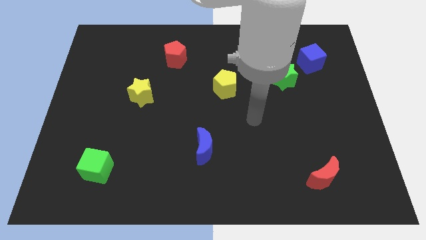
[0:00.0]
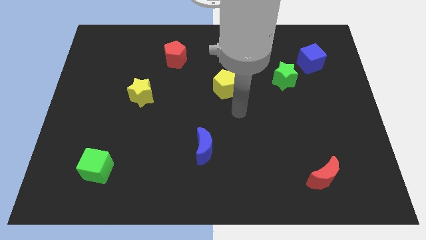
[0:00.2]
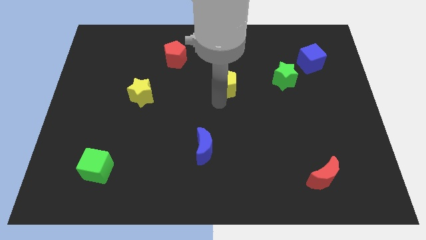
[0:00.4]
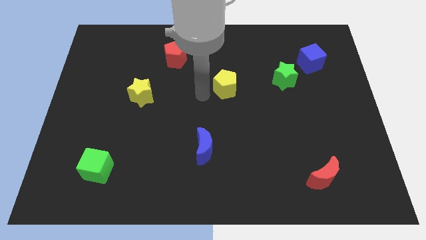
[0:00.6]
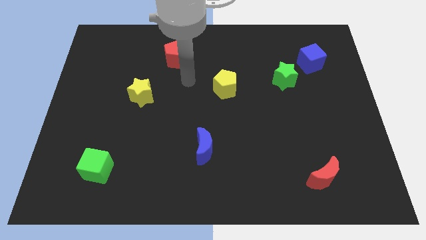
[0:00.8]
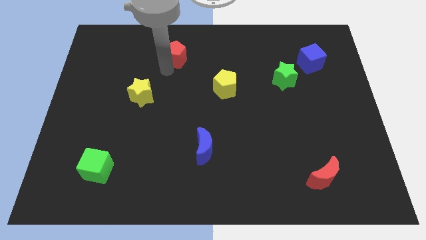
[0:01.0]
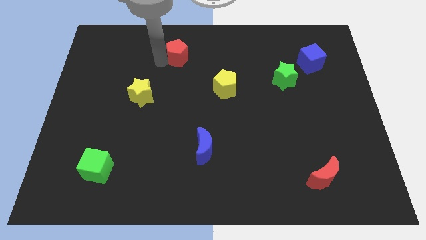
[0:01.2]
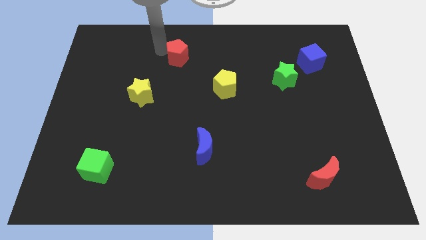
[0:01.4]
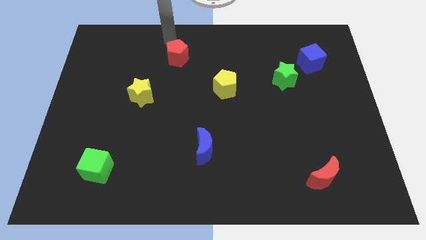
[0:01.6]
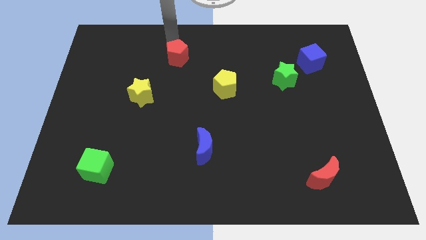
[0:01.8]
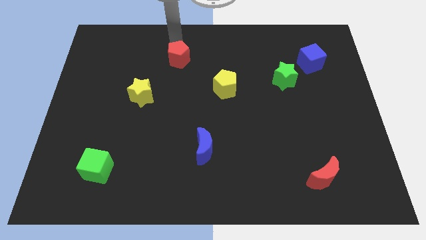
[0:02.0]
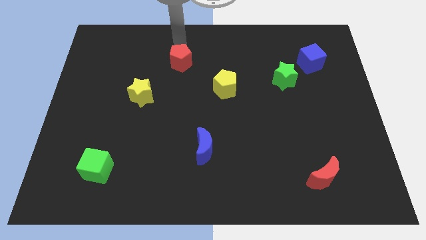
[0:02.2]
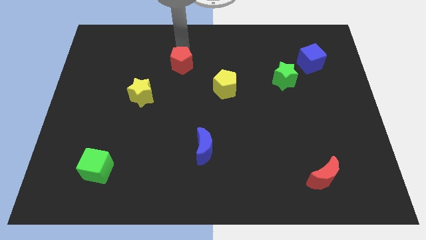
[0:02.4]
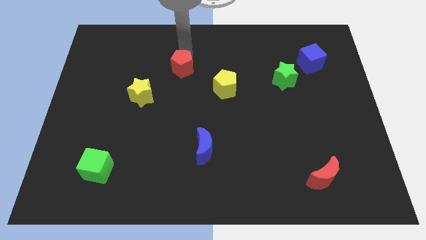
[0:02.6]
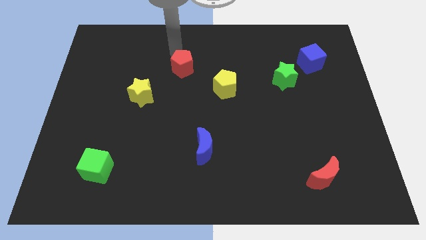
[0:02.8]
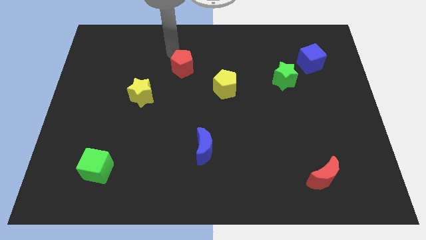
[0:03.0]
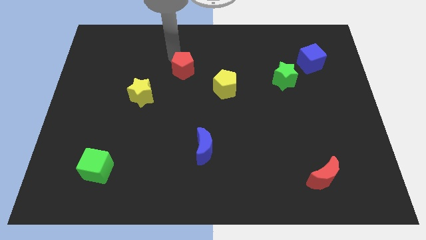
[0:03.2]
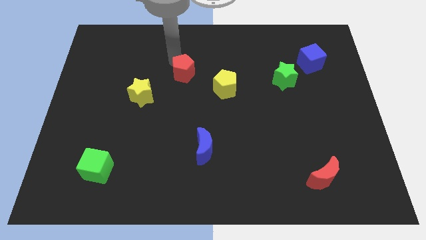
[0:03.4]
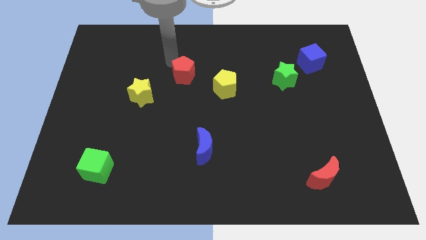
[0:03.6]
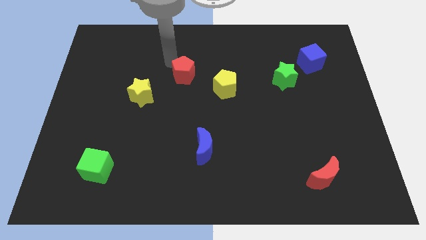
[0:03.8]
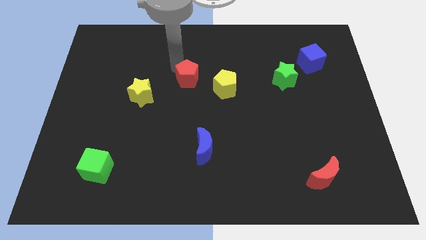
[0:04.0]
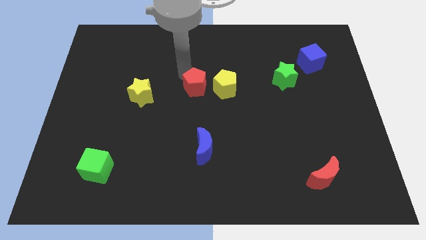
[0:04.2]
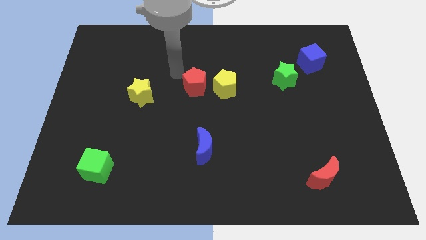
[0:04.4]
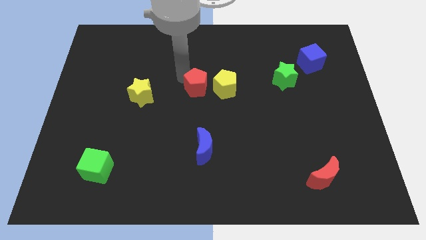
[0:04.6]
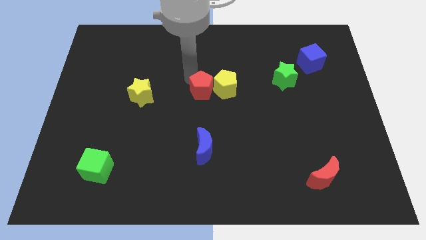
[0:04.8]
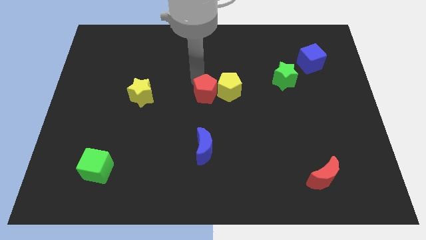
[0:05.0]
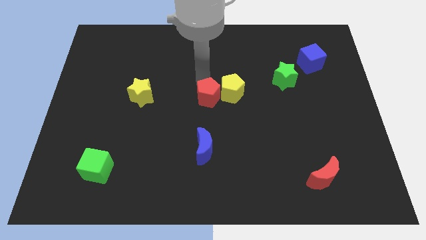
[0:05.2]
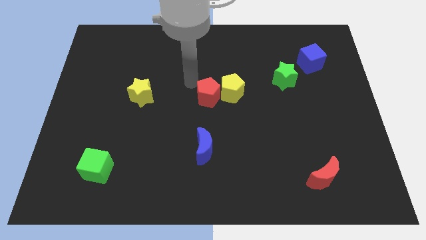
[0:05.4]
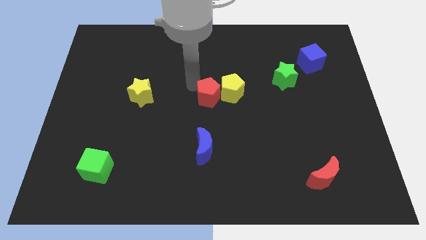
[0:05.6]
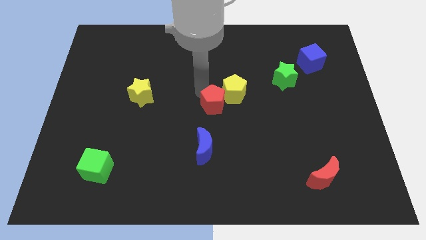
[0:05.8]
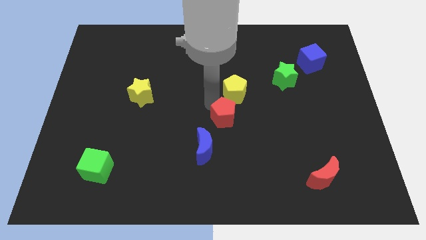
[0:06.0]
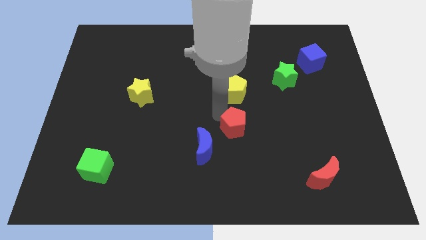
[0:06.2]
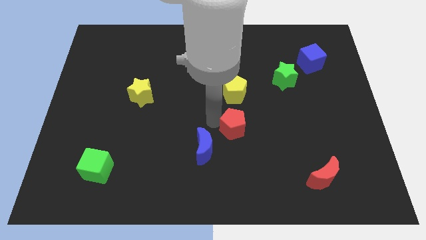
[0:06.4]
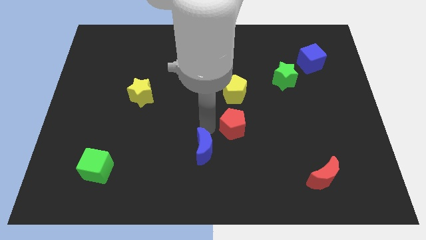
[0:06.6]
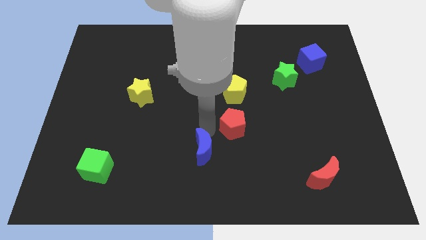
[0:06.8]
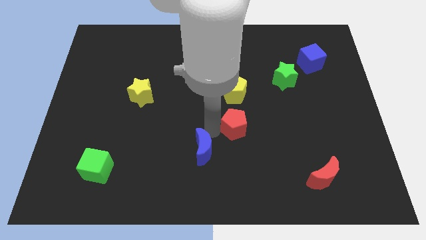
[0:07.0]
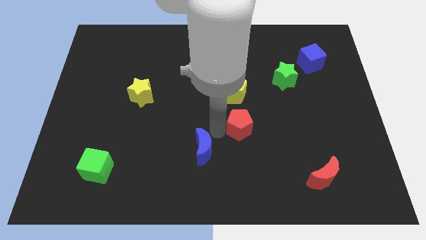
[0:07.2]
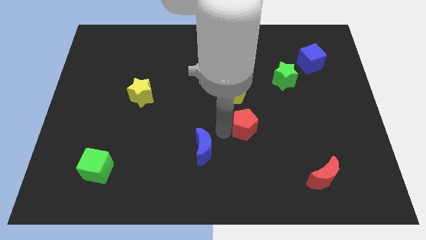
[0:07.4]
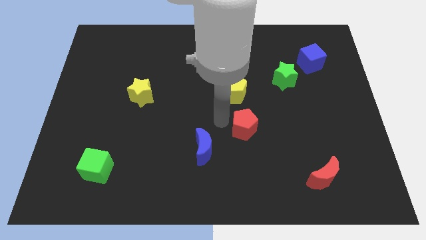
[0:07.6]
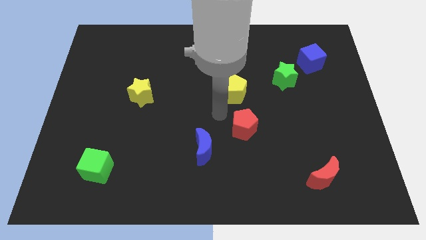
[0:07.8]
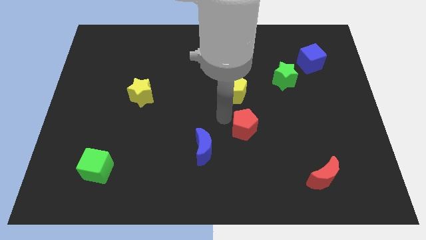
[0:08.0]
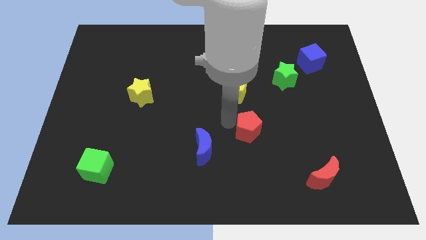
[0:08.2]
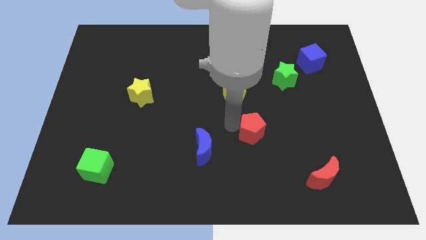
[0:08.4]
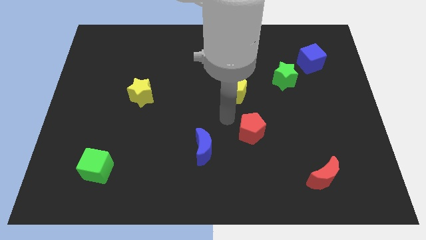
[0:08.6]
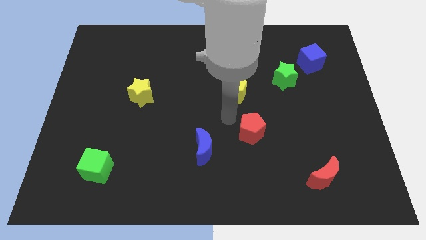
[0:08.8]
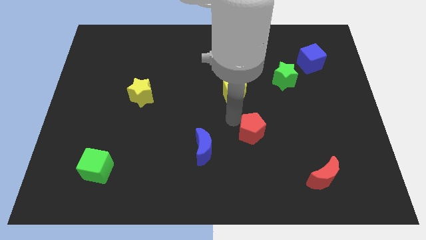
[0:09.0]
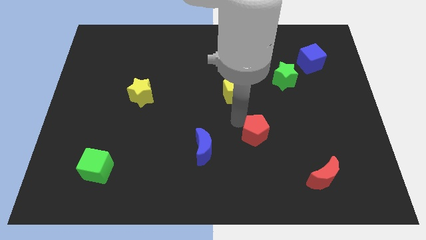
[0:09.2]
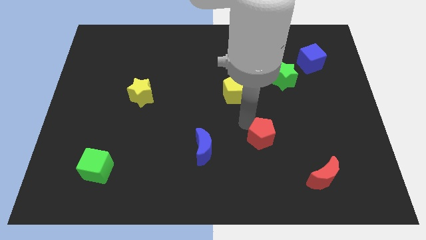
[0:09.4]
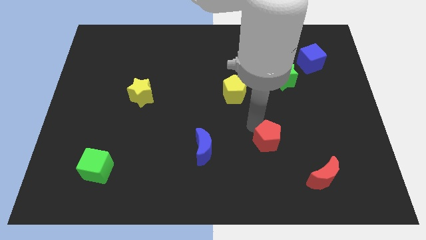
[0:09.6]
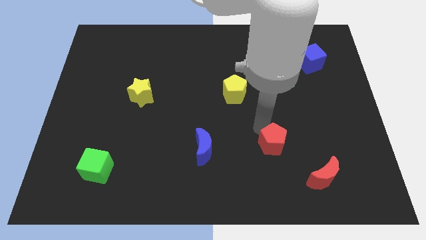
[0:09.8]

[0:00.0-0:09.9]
move the red pentagon to the top left of the red moon

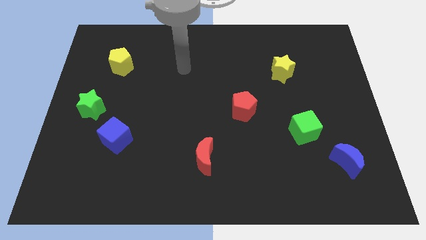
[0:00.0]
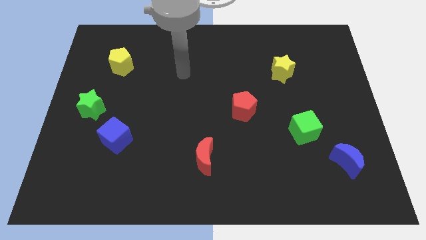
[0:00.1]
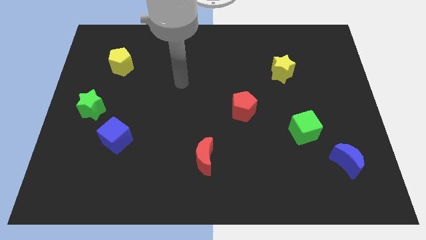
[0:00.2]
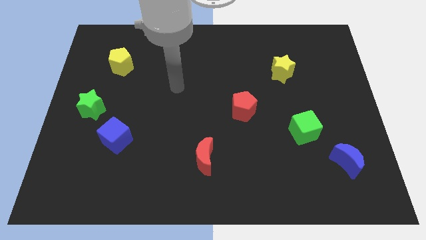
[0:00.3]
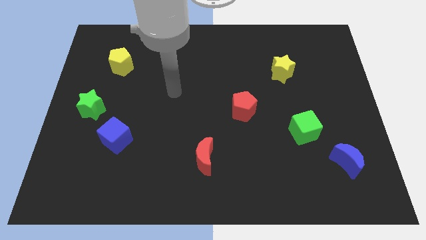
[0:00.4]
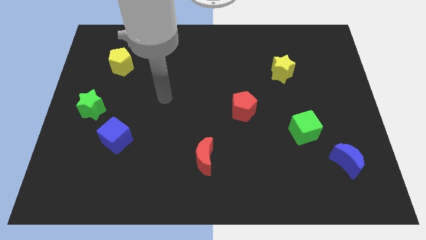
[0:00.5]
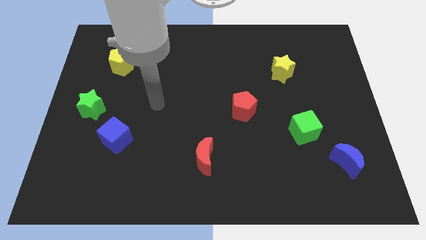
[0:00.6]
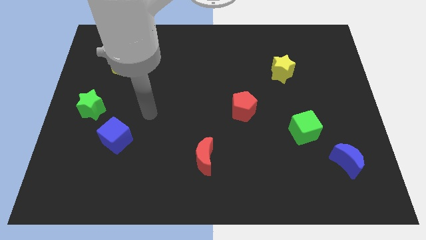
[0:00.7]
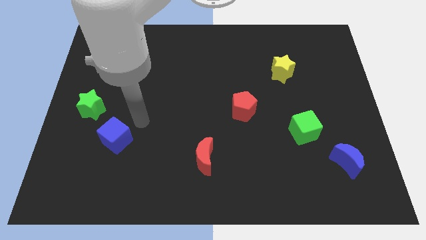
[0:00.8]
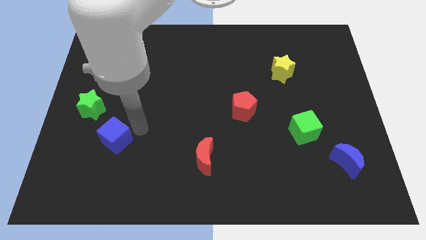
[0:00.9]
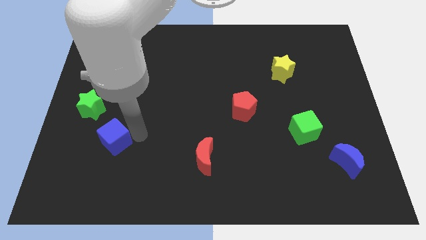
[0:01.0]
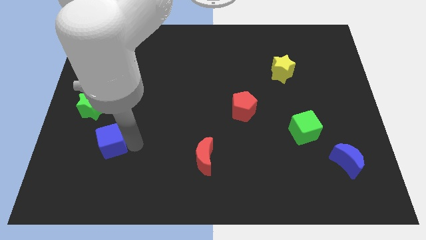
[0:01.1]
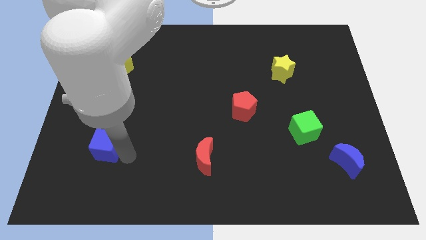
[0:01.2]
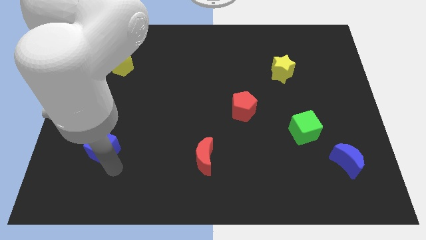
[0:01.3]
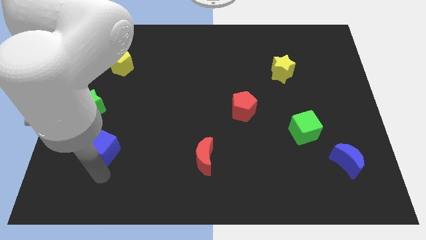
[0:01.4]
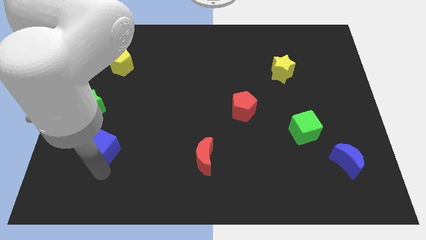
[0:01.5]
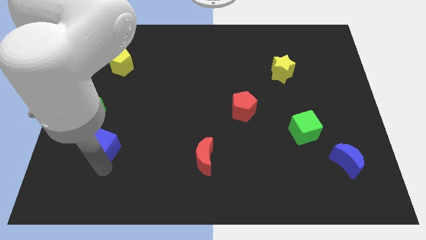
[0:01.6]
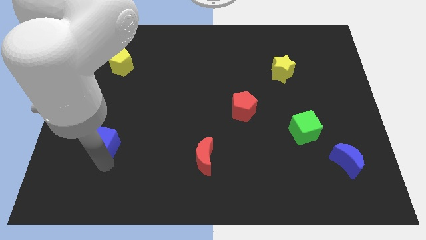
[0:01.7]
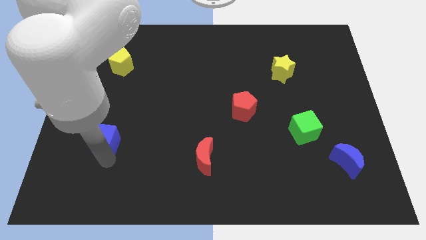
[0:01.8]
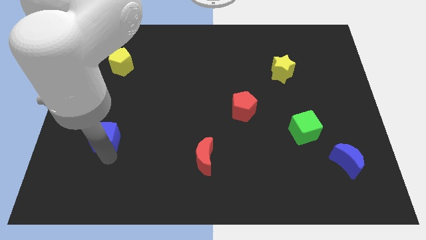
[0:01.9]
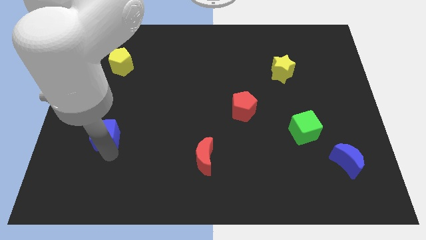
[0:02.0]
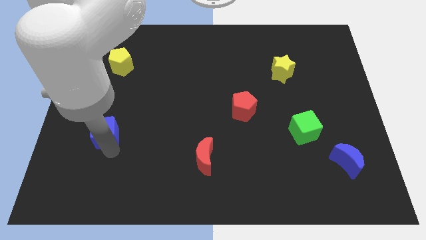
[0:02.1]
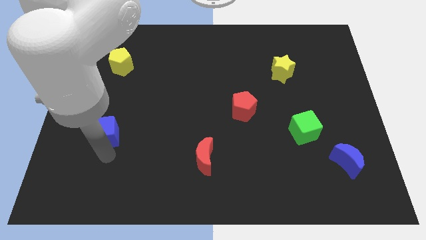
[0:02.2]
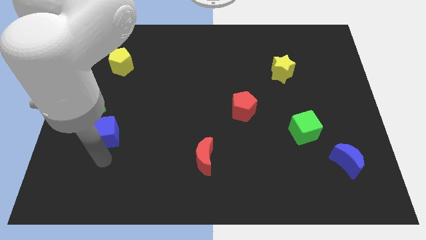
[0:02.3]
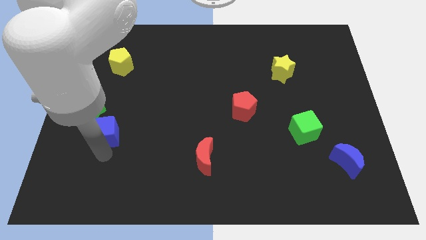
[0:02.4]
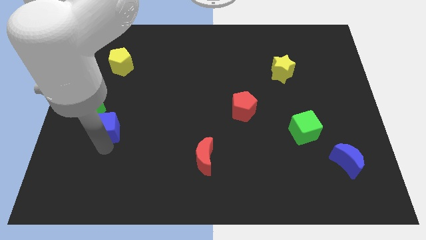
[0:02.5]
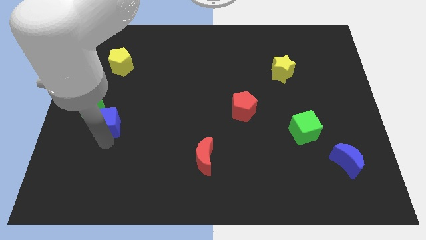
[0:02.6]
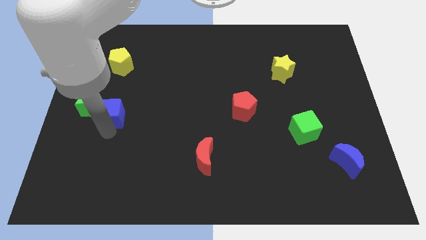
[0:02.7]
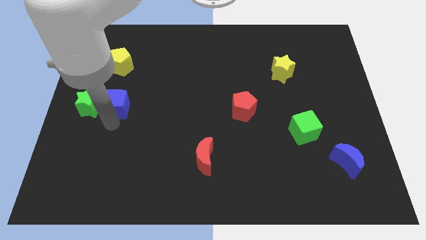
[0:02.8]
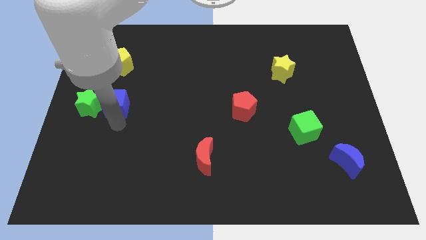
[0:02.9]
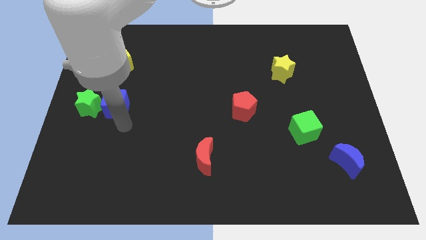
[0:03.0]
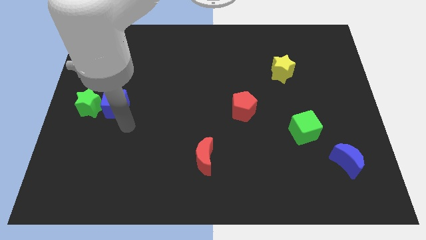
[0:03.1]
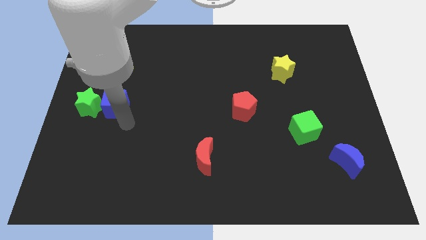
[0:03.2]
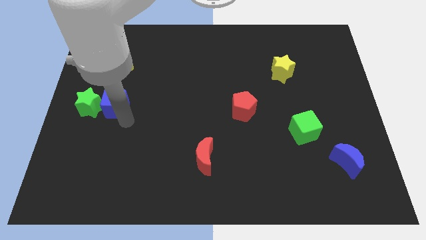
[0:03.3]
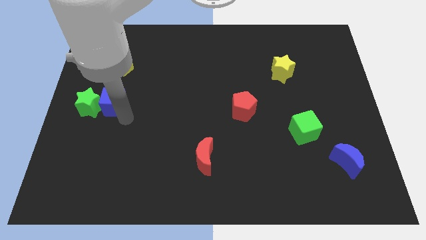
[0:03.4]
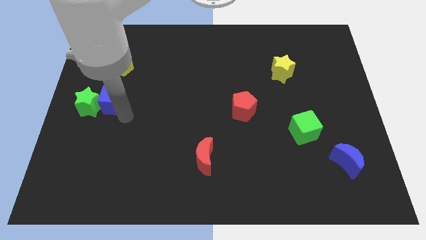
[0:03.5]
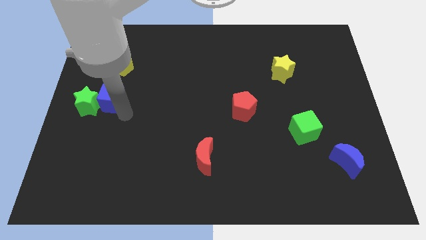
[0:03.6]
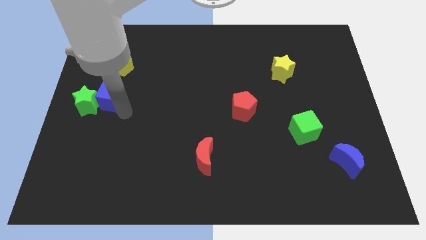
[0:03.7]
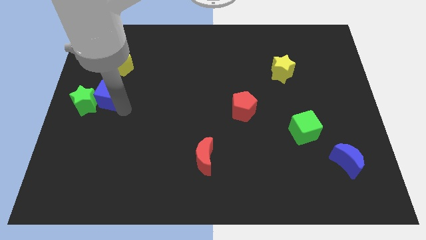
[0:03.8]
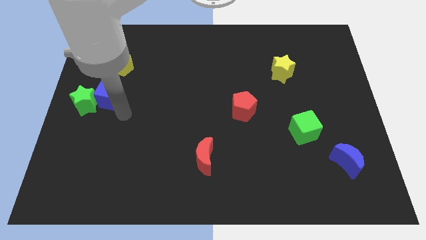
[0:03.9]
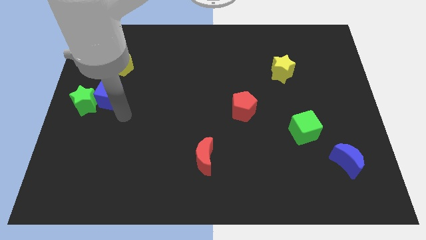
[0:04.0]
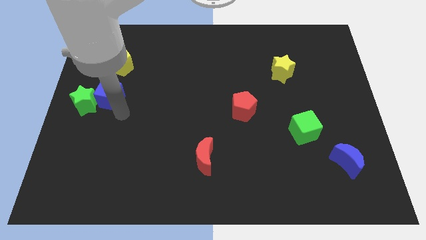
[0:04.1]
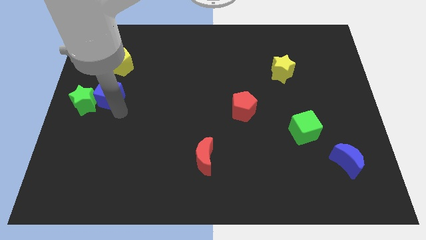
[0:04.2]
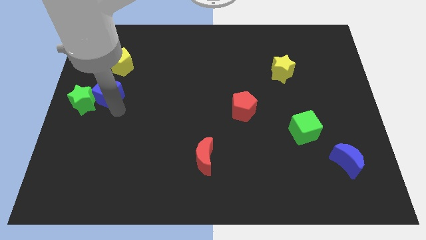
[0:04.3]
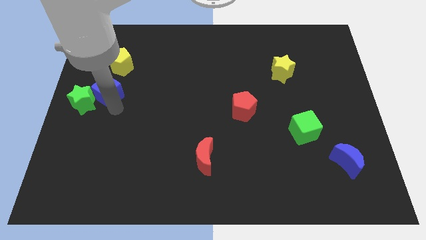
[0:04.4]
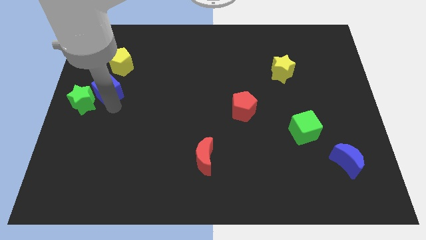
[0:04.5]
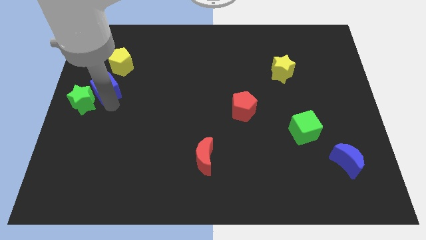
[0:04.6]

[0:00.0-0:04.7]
push the blue cube to the bottom left side of the yellow pentagon
